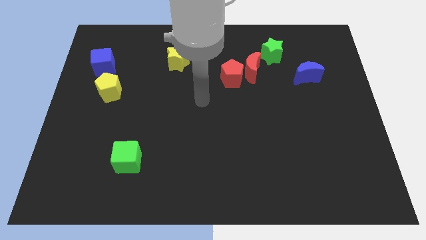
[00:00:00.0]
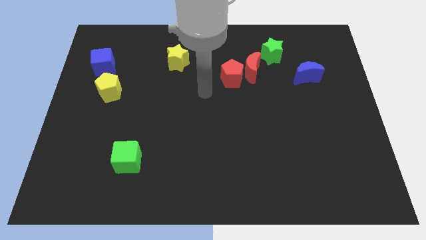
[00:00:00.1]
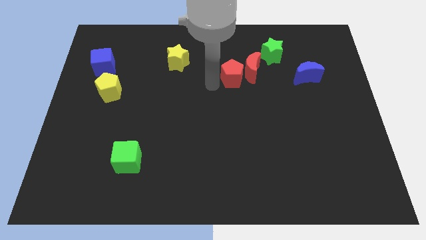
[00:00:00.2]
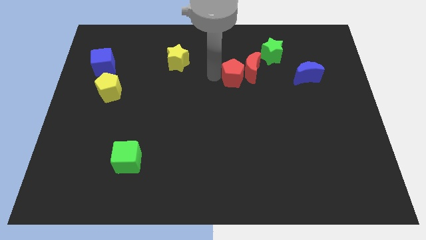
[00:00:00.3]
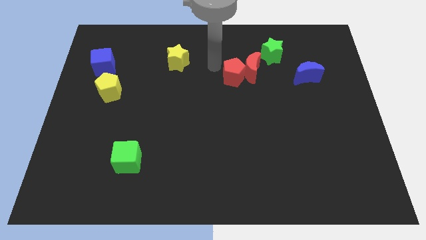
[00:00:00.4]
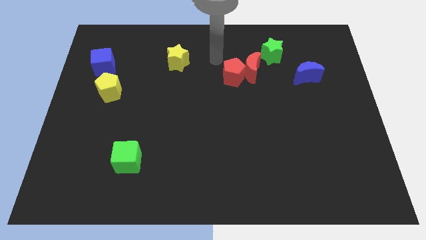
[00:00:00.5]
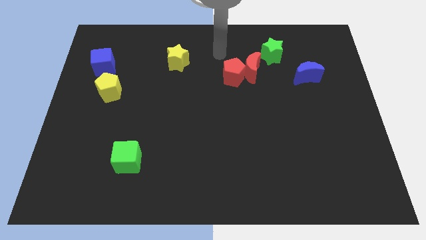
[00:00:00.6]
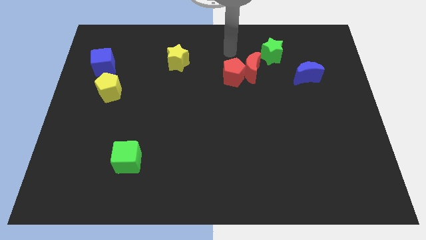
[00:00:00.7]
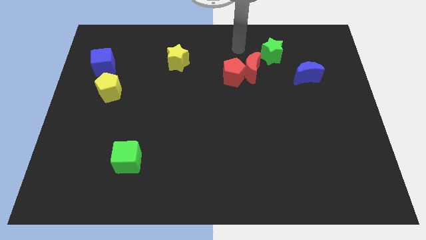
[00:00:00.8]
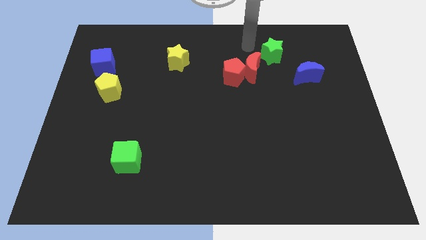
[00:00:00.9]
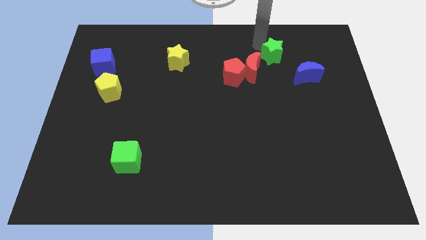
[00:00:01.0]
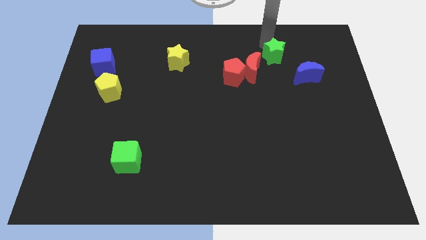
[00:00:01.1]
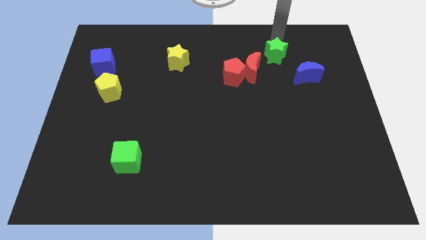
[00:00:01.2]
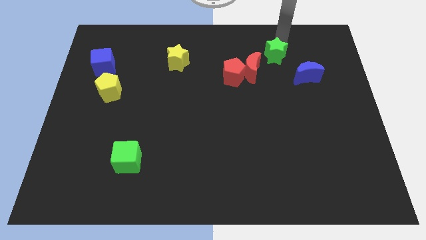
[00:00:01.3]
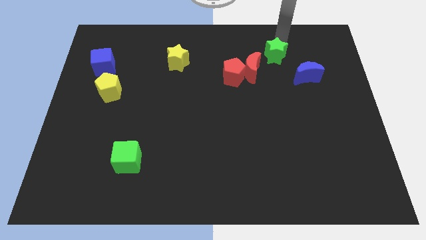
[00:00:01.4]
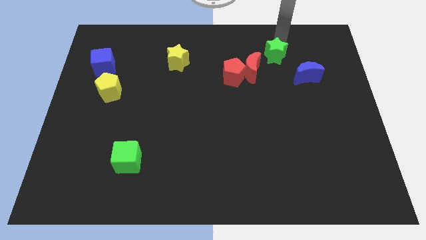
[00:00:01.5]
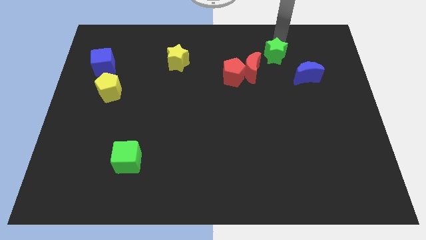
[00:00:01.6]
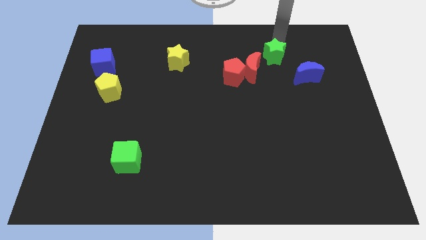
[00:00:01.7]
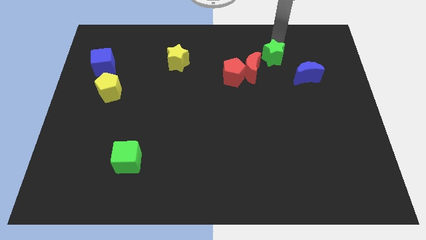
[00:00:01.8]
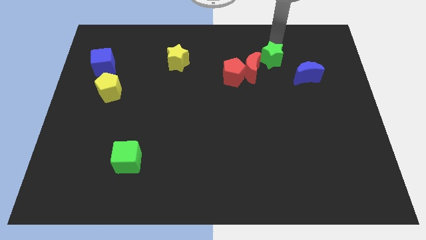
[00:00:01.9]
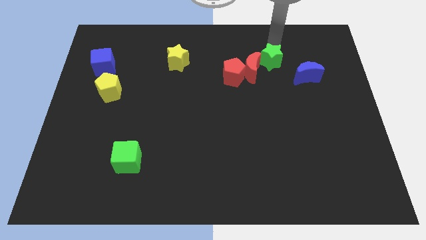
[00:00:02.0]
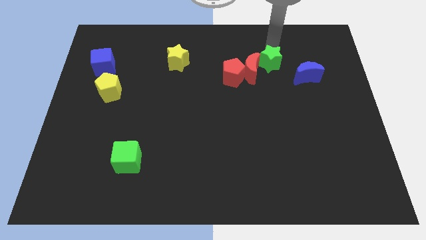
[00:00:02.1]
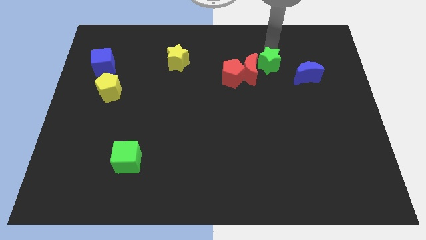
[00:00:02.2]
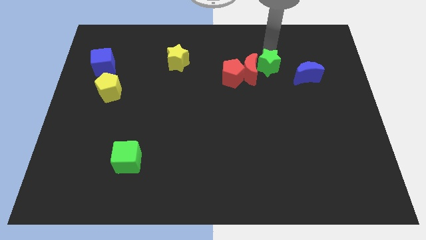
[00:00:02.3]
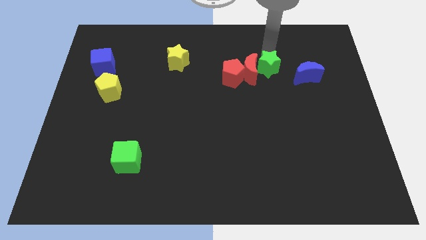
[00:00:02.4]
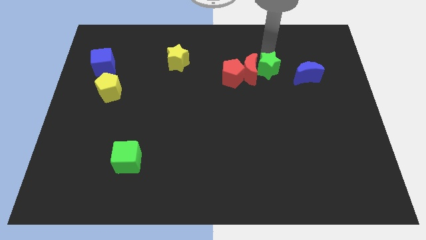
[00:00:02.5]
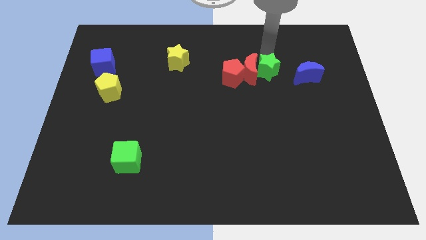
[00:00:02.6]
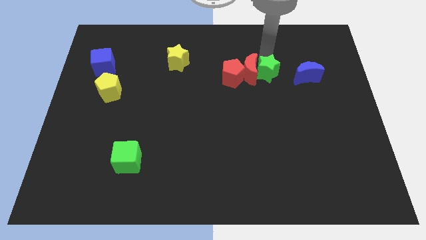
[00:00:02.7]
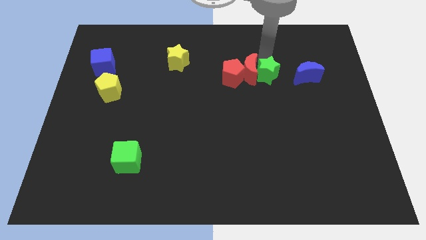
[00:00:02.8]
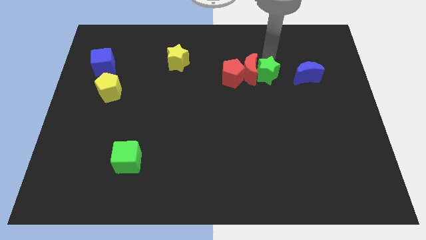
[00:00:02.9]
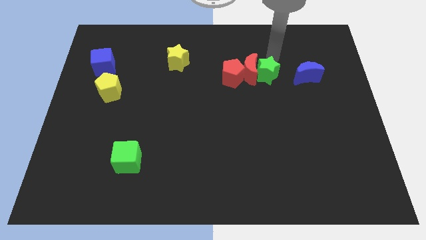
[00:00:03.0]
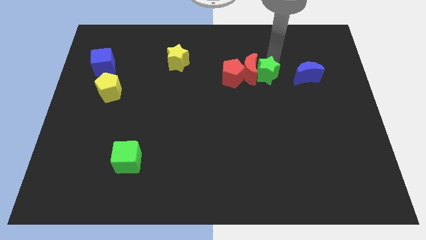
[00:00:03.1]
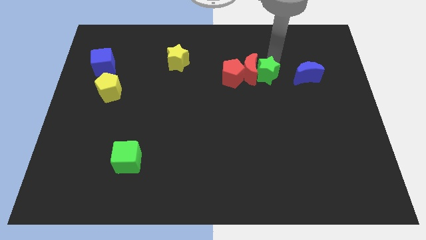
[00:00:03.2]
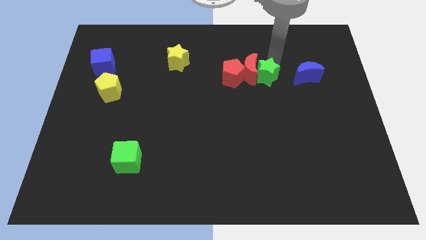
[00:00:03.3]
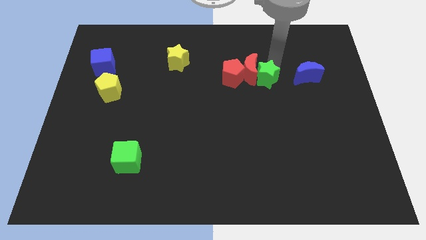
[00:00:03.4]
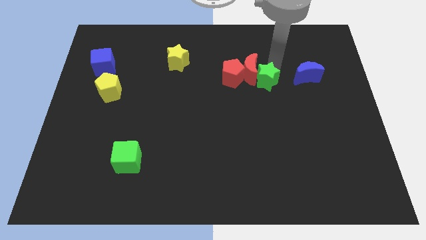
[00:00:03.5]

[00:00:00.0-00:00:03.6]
slide the green star downwards and to the left diagonally slightly

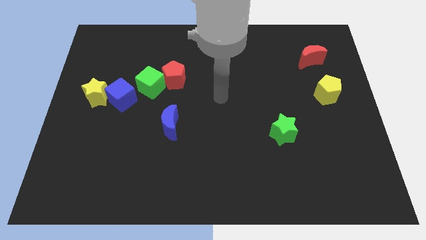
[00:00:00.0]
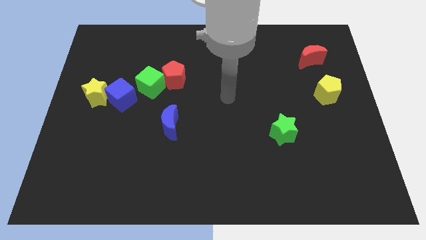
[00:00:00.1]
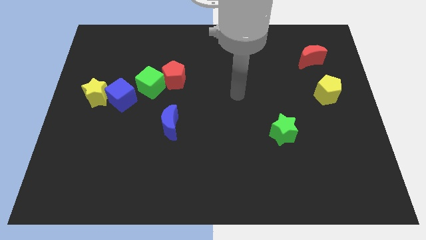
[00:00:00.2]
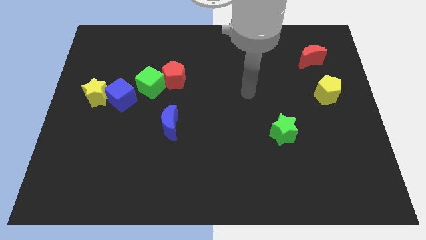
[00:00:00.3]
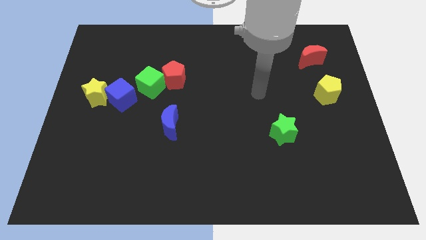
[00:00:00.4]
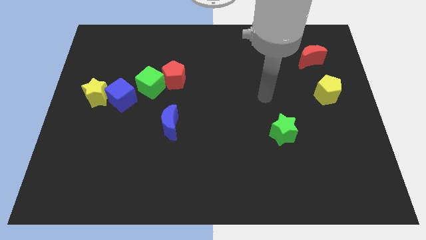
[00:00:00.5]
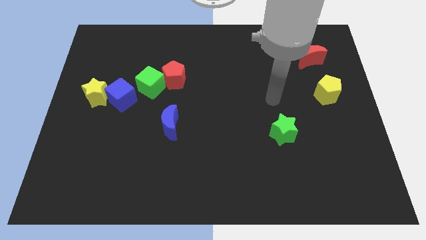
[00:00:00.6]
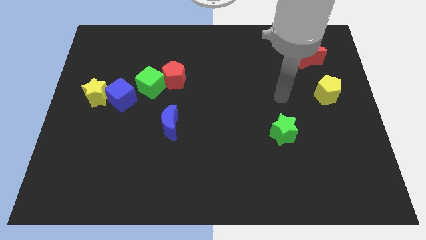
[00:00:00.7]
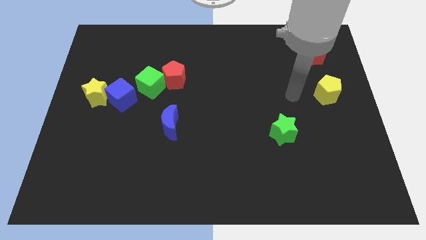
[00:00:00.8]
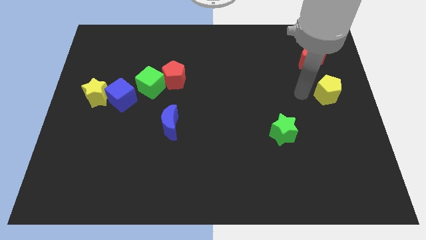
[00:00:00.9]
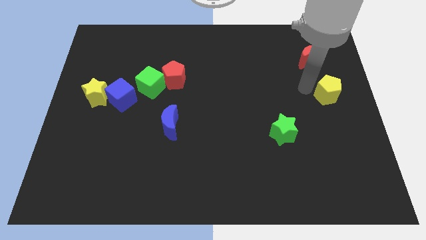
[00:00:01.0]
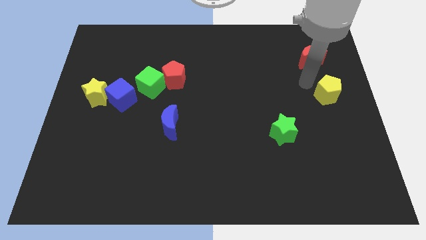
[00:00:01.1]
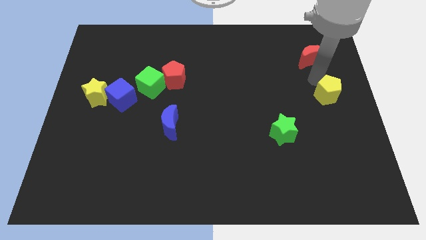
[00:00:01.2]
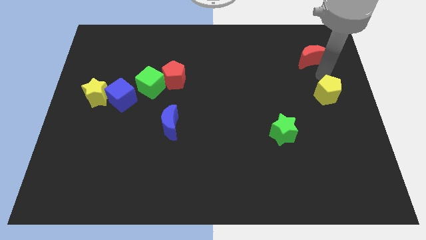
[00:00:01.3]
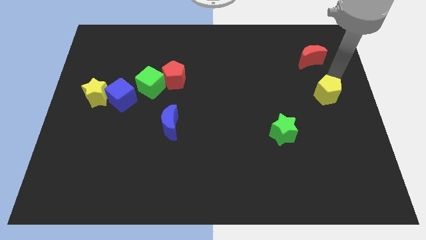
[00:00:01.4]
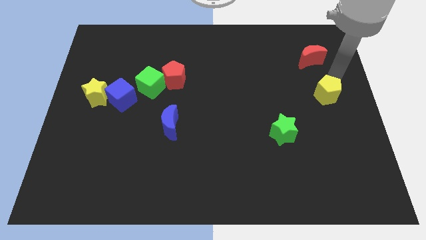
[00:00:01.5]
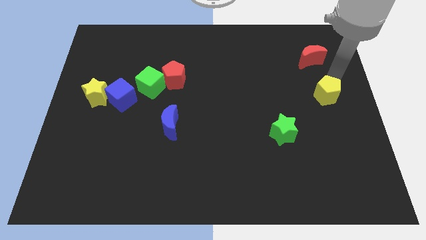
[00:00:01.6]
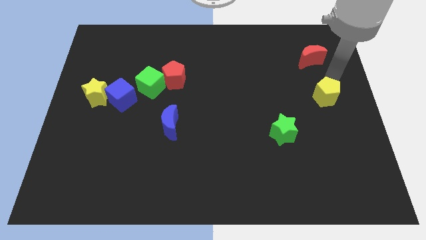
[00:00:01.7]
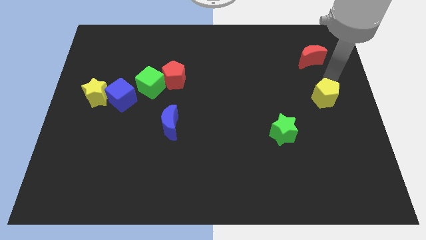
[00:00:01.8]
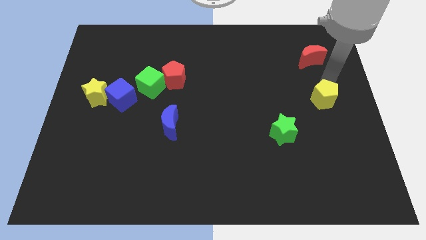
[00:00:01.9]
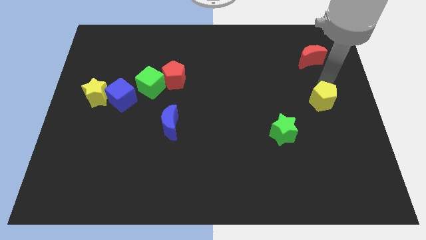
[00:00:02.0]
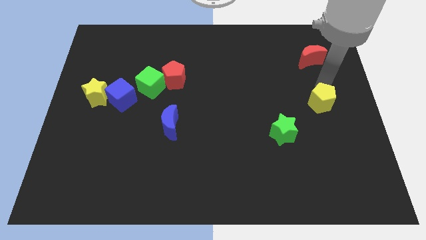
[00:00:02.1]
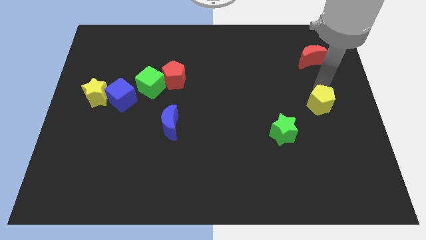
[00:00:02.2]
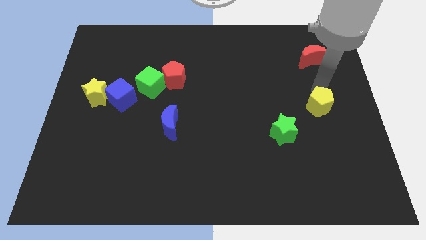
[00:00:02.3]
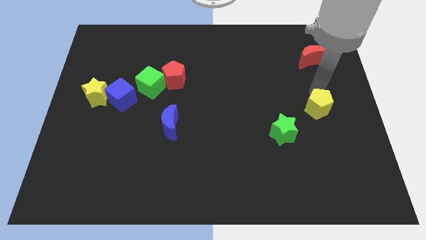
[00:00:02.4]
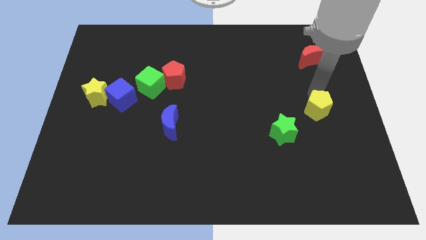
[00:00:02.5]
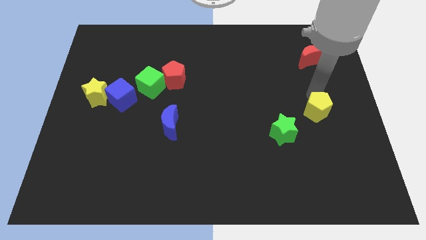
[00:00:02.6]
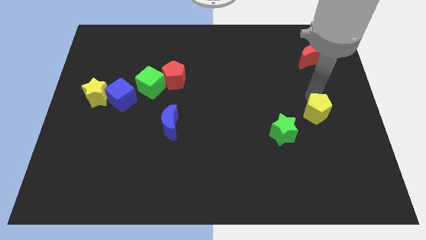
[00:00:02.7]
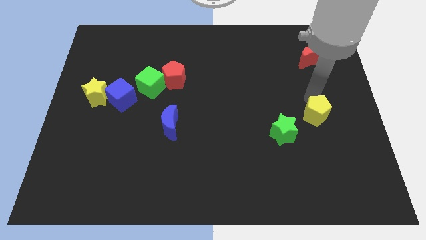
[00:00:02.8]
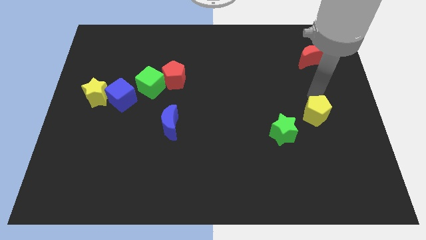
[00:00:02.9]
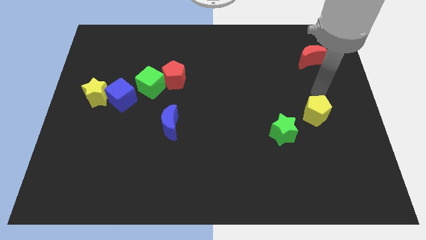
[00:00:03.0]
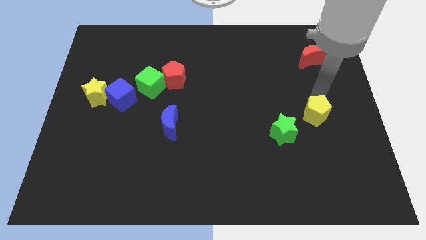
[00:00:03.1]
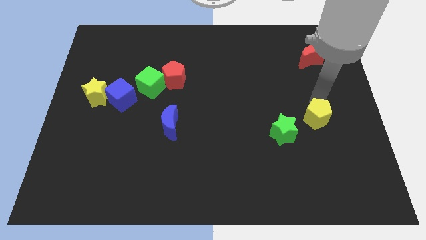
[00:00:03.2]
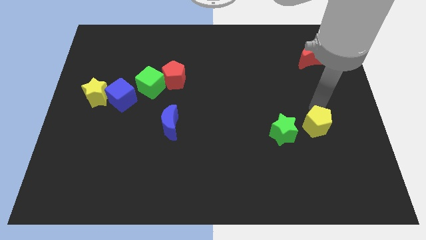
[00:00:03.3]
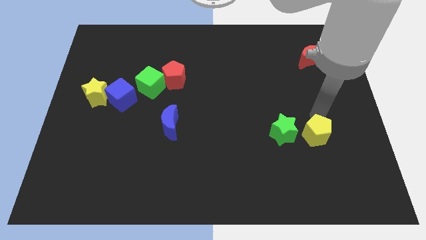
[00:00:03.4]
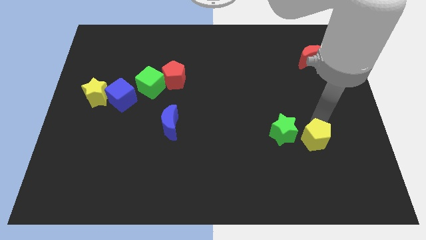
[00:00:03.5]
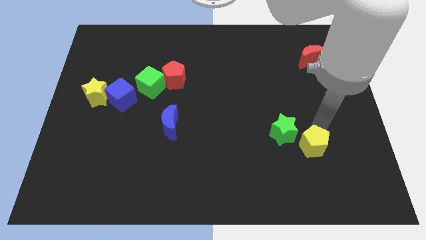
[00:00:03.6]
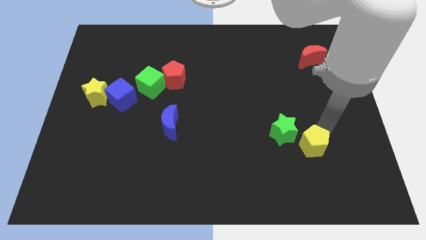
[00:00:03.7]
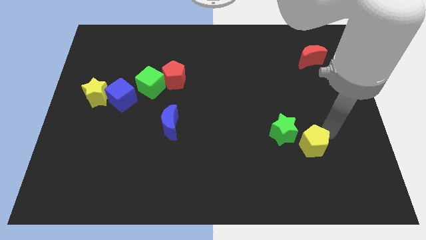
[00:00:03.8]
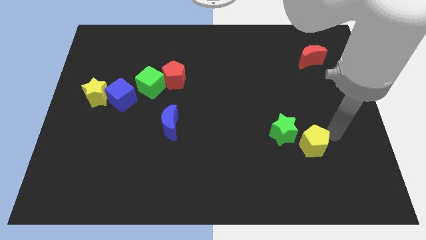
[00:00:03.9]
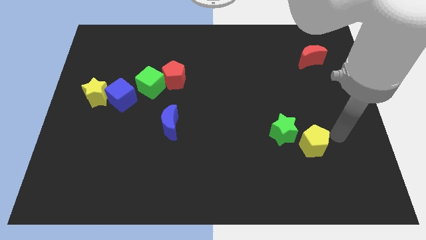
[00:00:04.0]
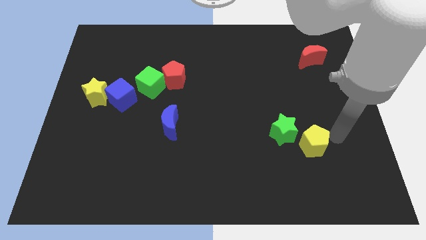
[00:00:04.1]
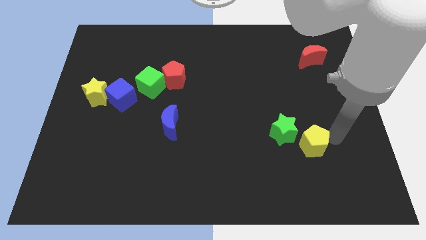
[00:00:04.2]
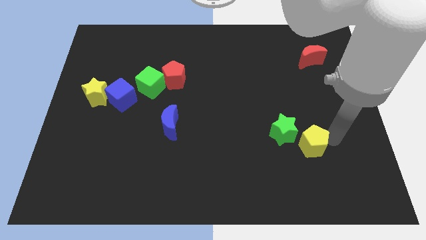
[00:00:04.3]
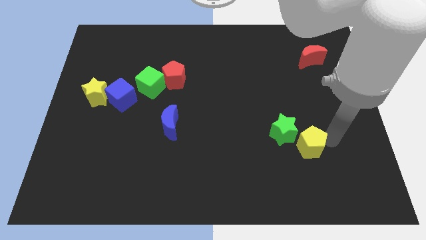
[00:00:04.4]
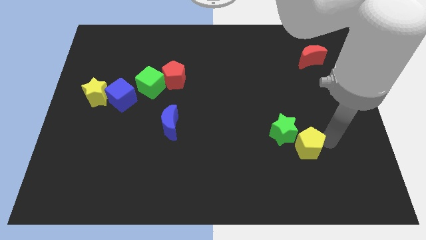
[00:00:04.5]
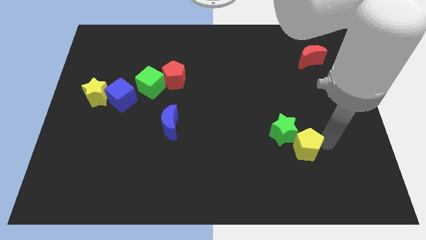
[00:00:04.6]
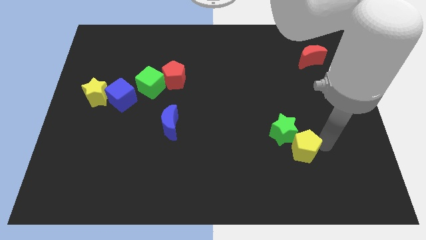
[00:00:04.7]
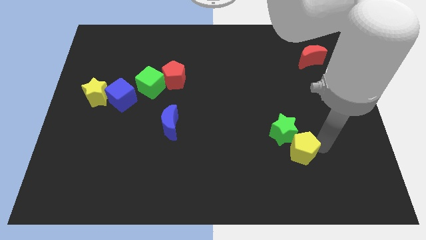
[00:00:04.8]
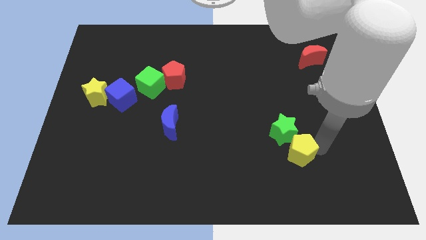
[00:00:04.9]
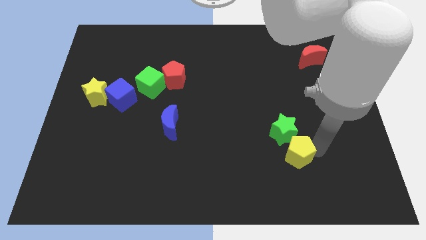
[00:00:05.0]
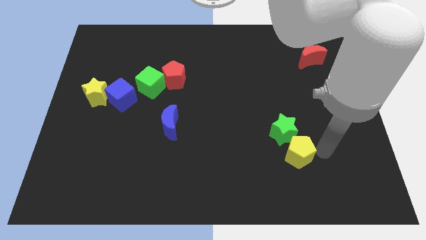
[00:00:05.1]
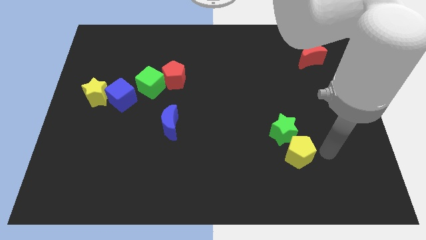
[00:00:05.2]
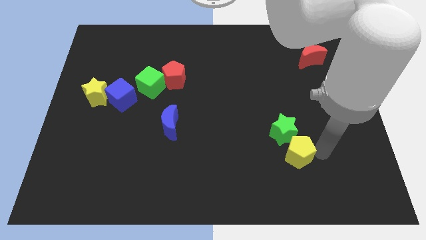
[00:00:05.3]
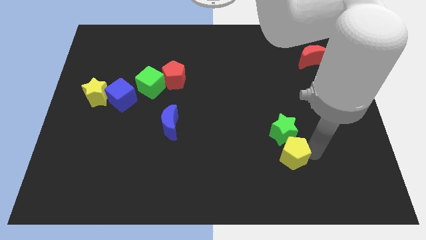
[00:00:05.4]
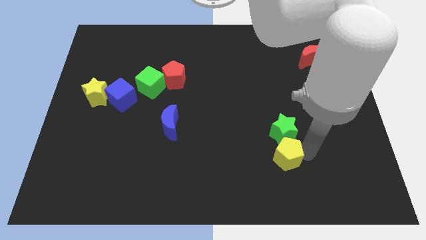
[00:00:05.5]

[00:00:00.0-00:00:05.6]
slide the yellow pentagon downwards and then left
